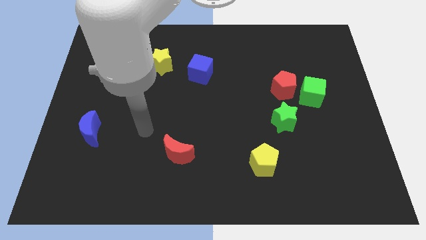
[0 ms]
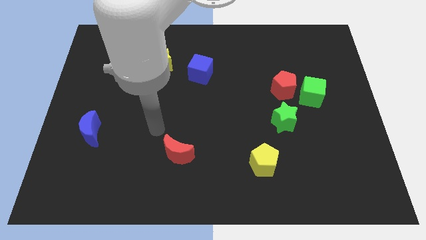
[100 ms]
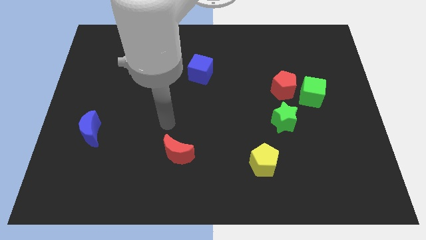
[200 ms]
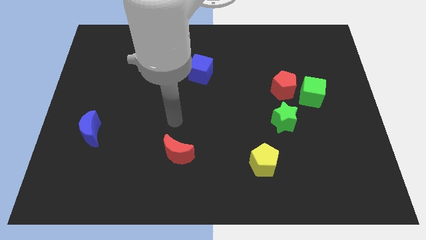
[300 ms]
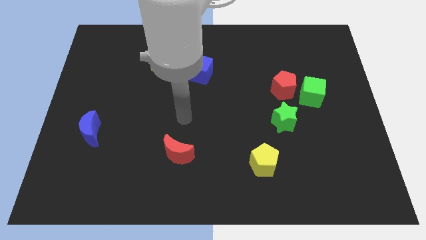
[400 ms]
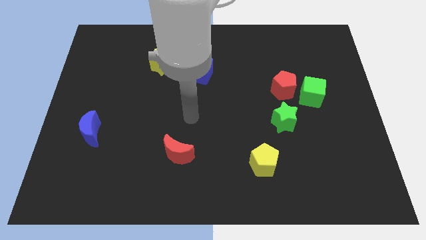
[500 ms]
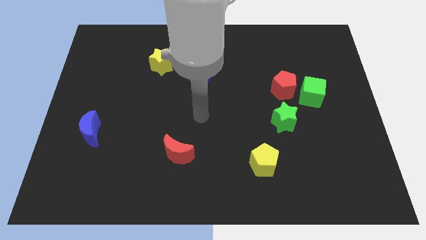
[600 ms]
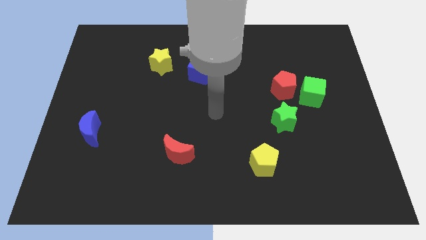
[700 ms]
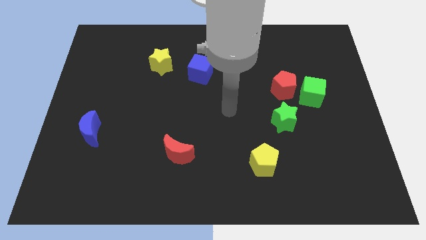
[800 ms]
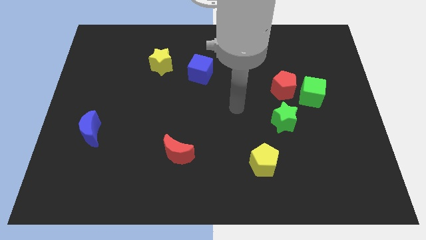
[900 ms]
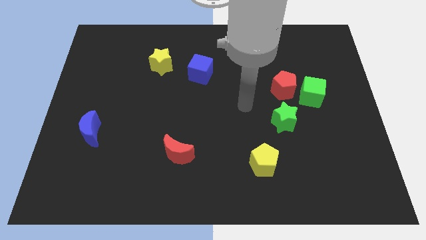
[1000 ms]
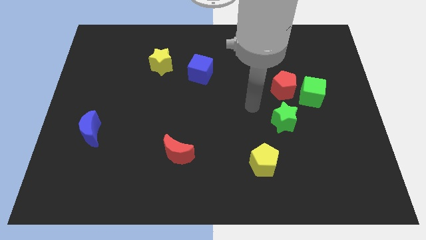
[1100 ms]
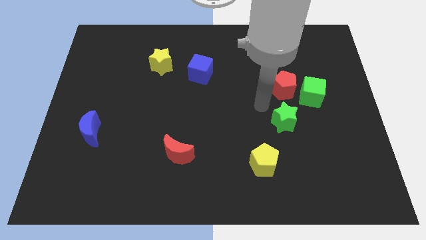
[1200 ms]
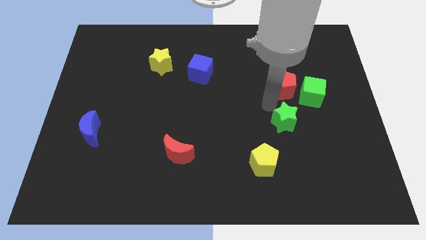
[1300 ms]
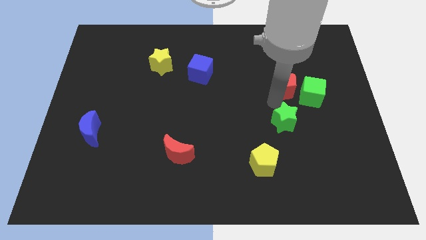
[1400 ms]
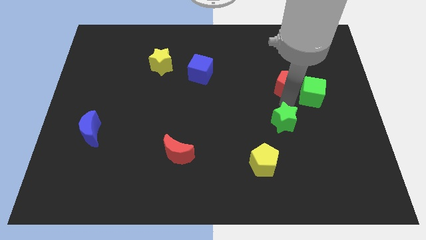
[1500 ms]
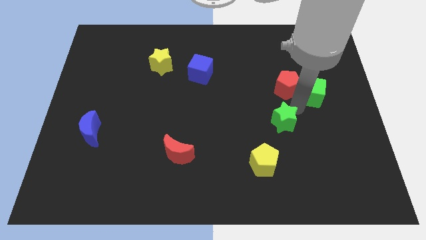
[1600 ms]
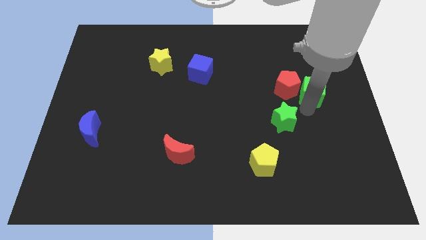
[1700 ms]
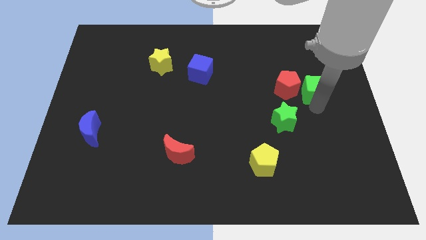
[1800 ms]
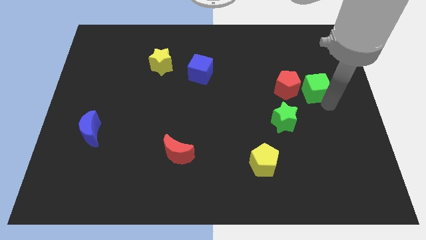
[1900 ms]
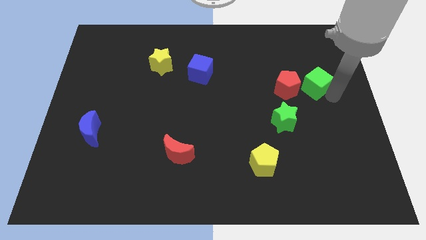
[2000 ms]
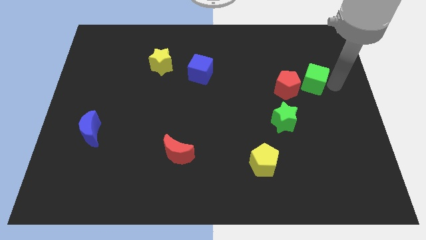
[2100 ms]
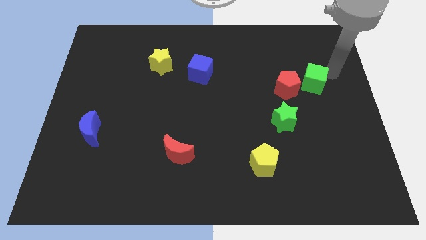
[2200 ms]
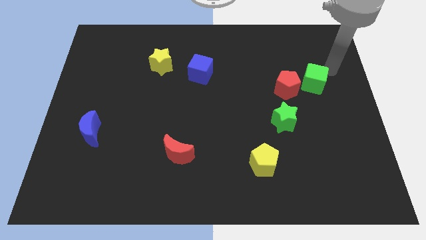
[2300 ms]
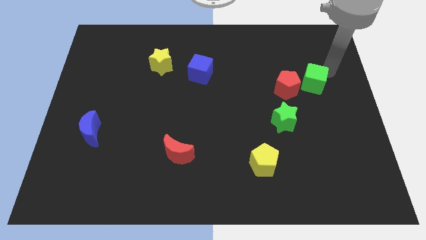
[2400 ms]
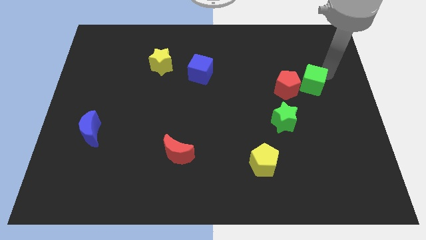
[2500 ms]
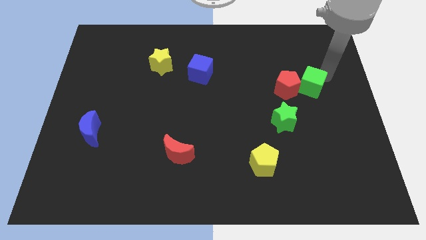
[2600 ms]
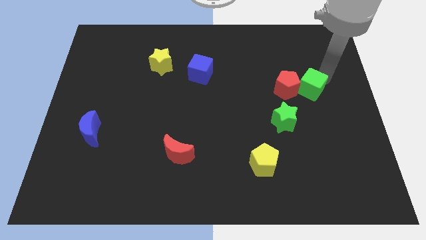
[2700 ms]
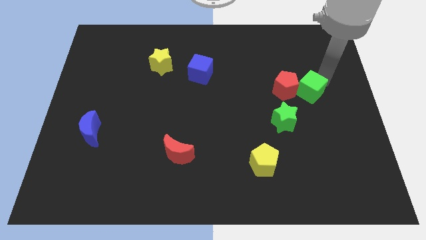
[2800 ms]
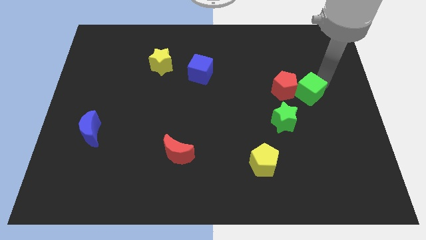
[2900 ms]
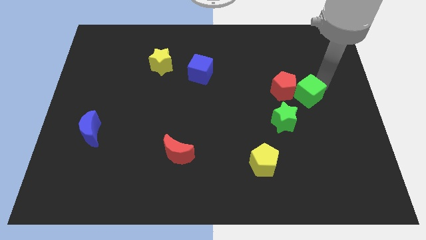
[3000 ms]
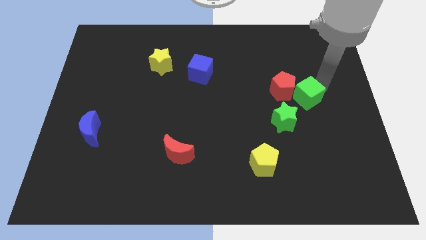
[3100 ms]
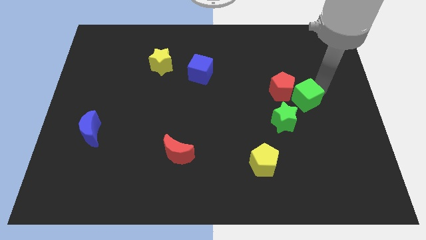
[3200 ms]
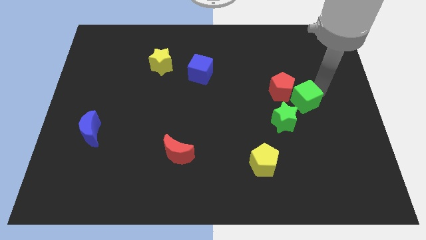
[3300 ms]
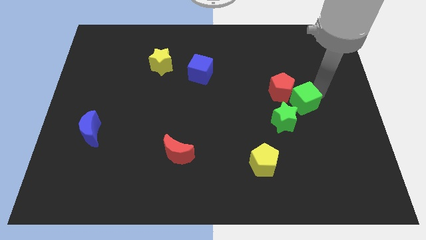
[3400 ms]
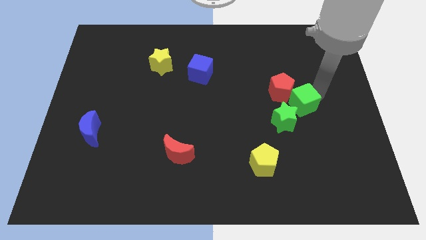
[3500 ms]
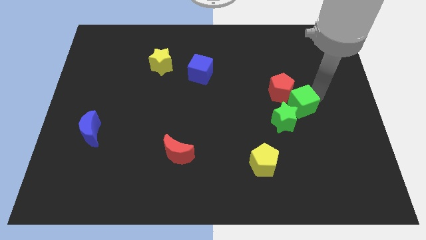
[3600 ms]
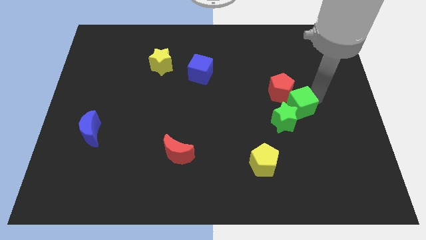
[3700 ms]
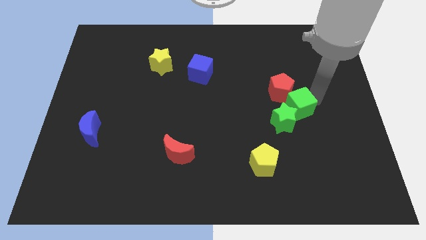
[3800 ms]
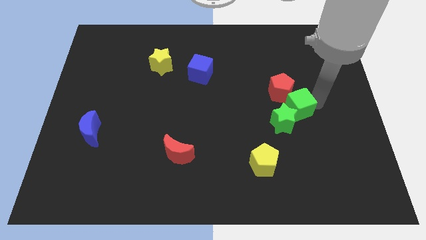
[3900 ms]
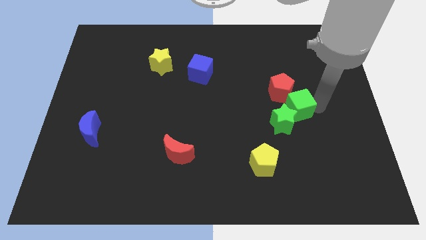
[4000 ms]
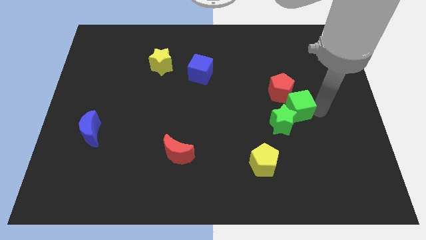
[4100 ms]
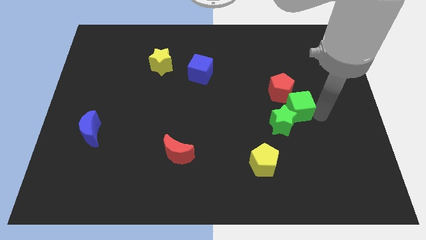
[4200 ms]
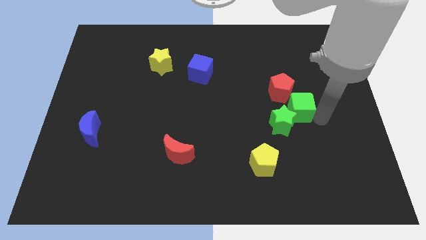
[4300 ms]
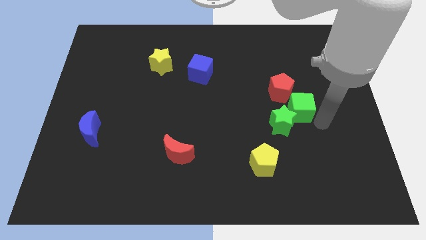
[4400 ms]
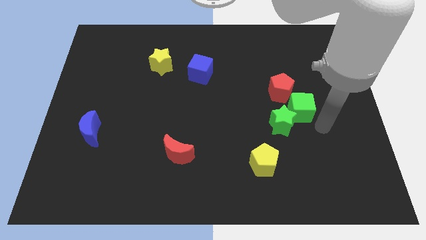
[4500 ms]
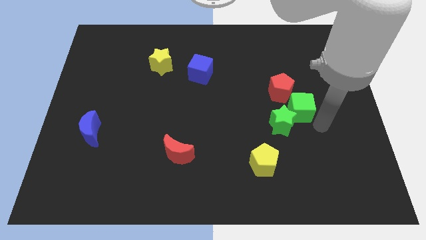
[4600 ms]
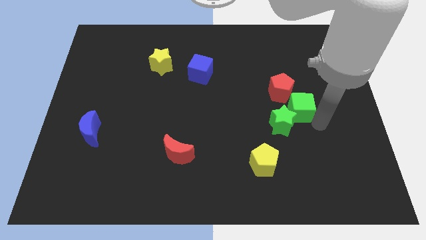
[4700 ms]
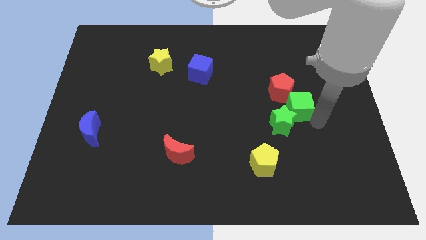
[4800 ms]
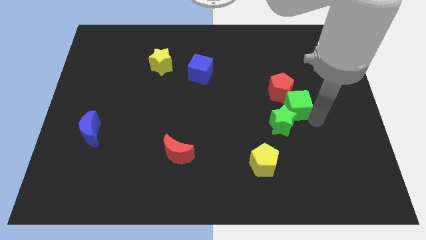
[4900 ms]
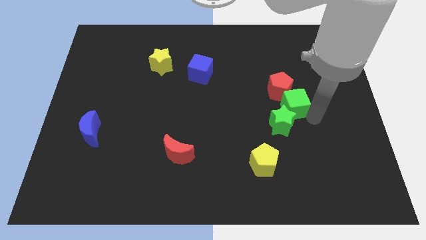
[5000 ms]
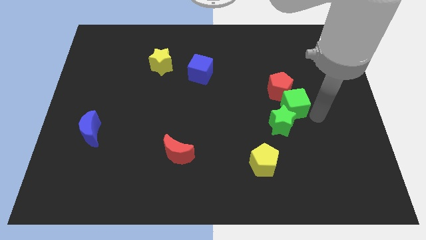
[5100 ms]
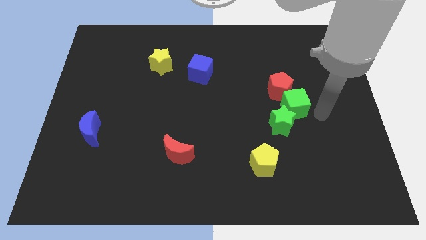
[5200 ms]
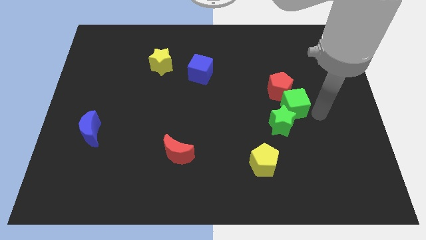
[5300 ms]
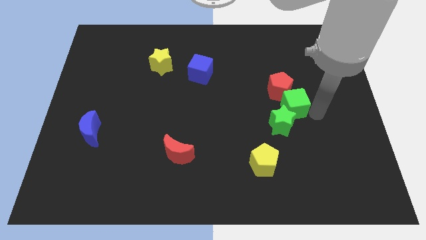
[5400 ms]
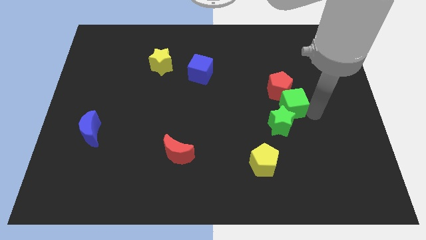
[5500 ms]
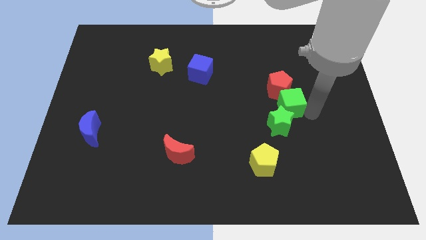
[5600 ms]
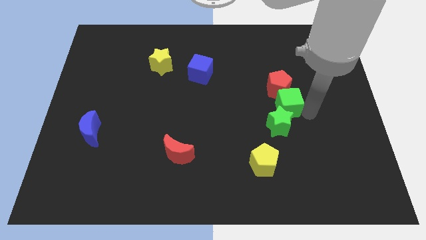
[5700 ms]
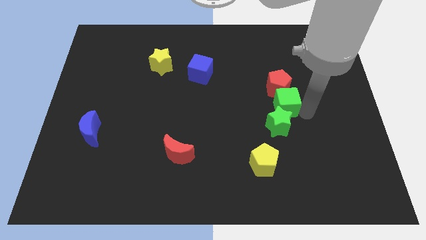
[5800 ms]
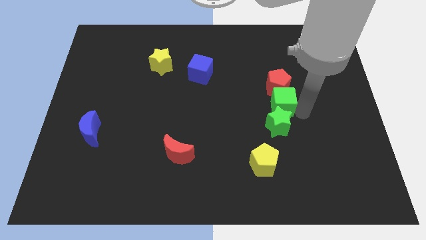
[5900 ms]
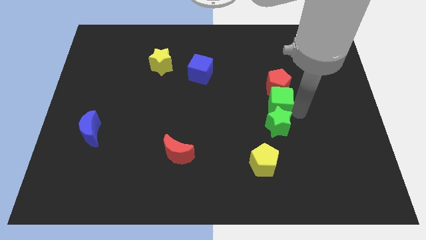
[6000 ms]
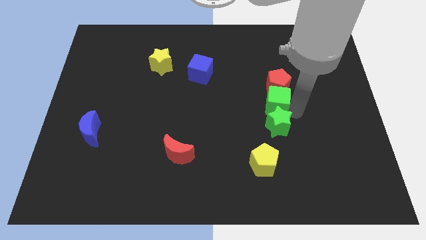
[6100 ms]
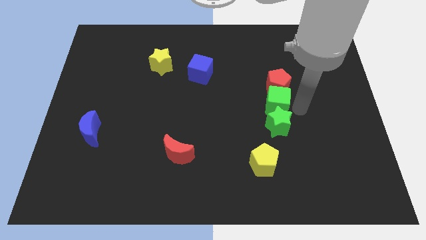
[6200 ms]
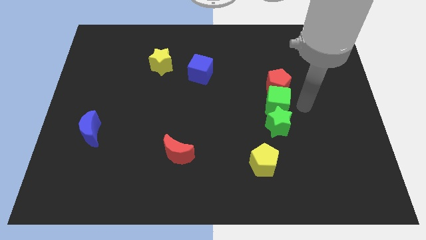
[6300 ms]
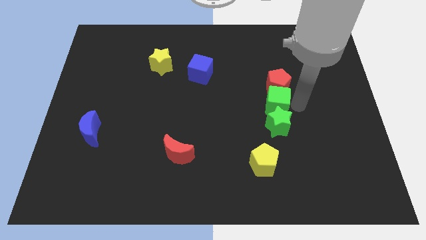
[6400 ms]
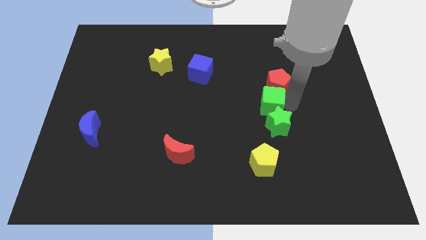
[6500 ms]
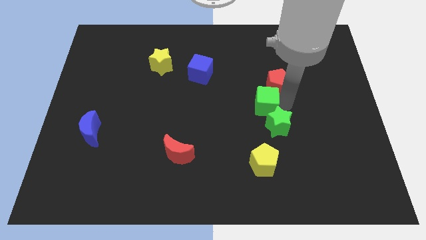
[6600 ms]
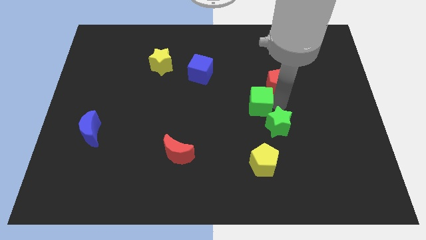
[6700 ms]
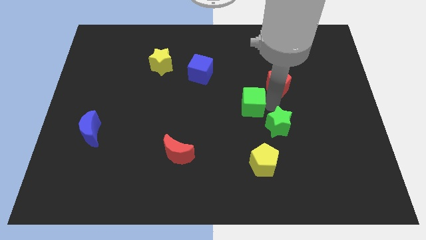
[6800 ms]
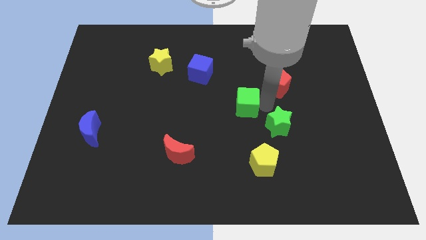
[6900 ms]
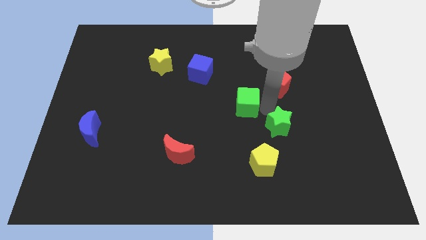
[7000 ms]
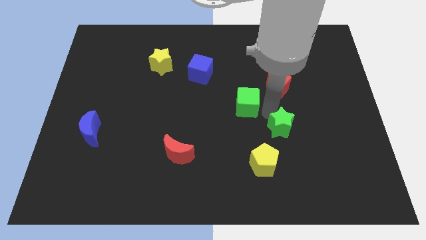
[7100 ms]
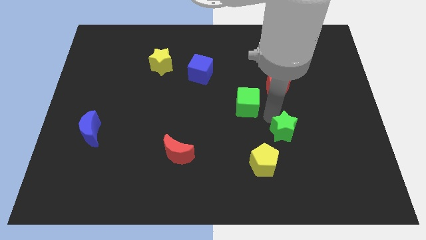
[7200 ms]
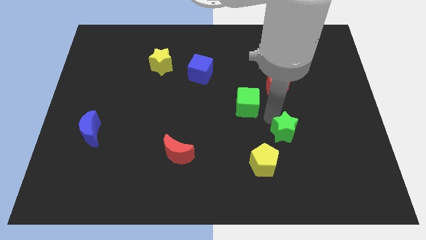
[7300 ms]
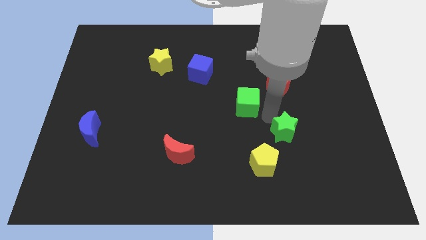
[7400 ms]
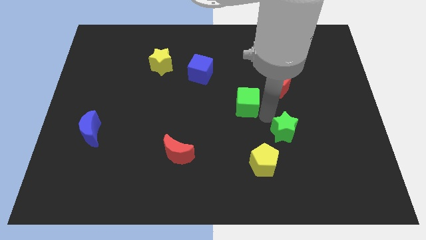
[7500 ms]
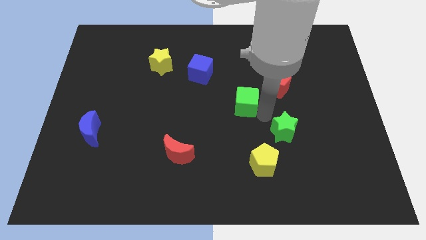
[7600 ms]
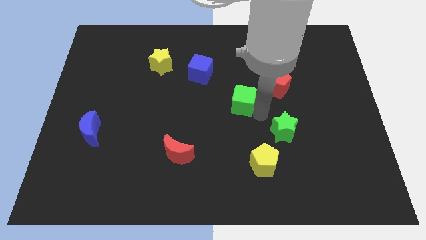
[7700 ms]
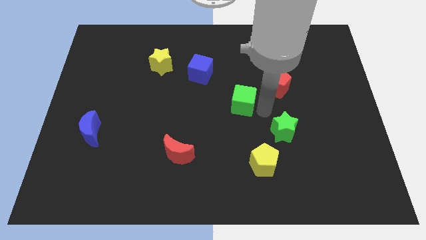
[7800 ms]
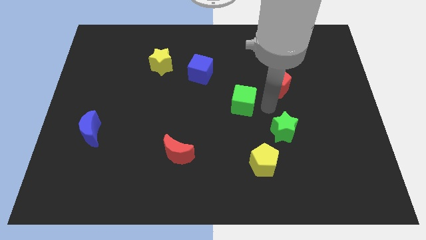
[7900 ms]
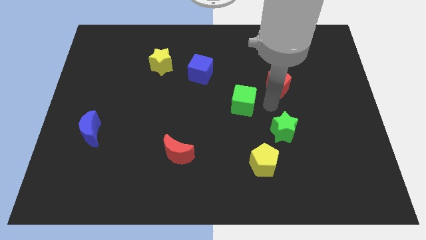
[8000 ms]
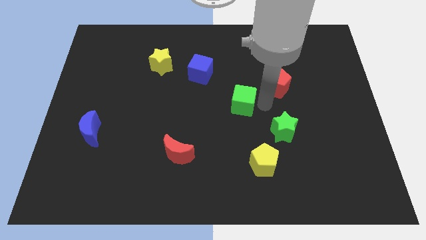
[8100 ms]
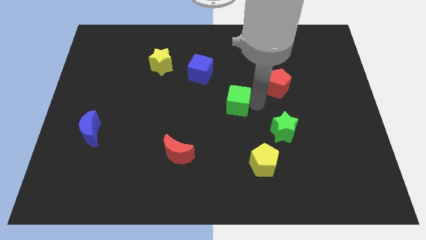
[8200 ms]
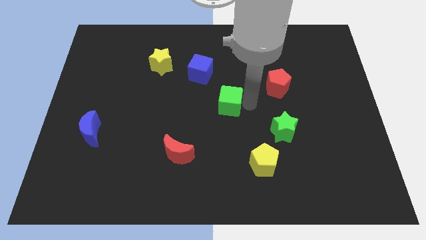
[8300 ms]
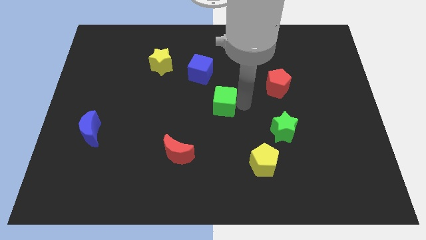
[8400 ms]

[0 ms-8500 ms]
move the green cube to the left
